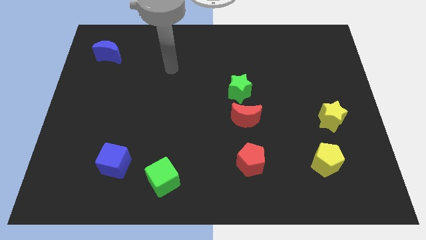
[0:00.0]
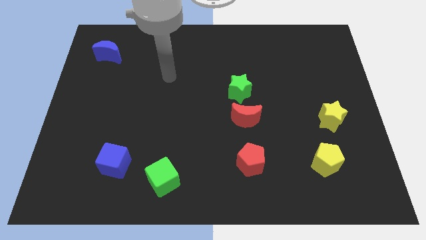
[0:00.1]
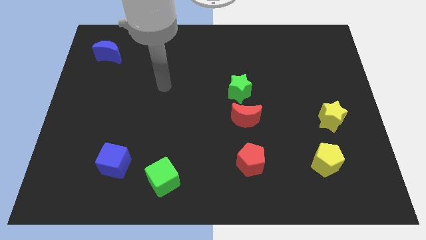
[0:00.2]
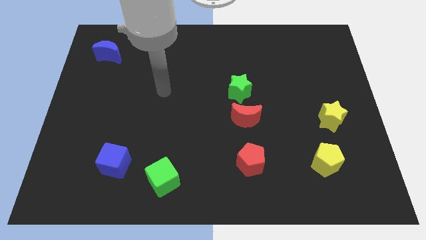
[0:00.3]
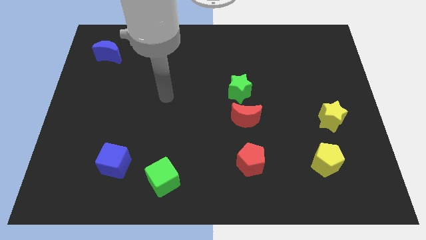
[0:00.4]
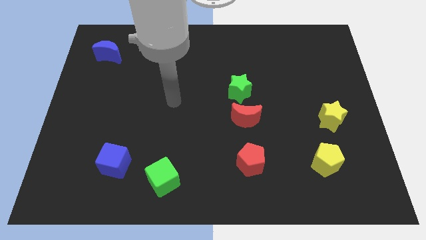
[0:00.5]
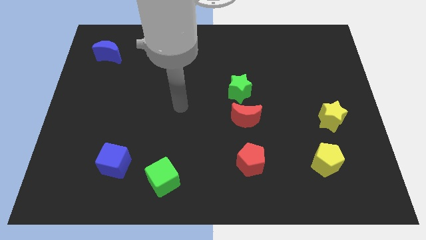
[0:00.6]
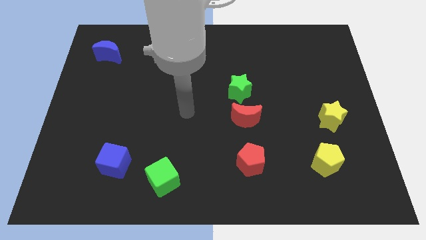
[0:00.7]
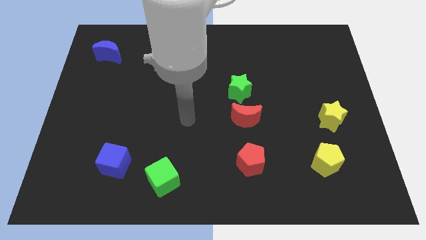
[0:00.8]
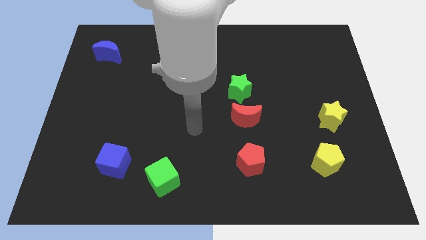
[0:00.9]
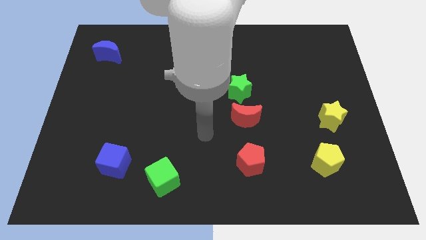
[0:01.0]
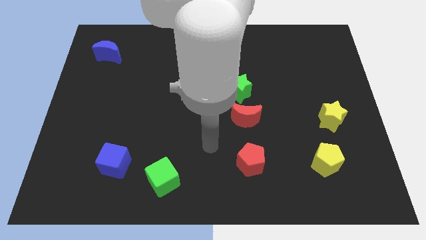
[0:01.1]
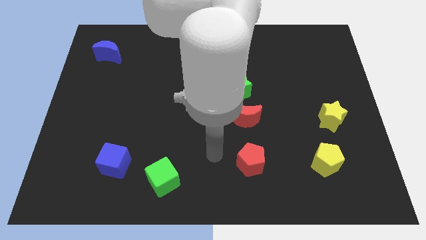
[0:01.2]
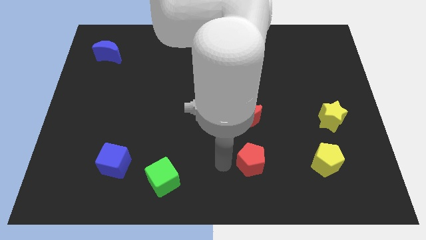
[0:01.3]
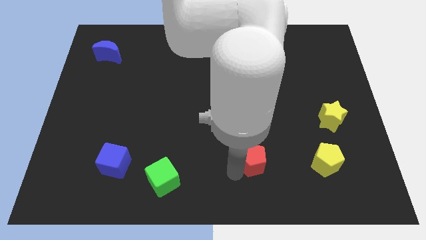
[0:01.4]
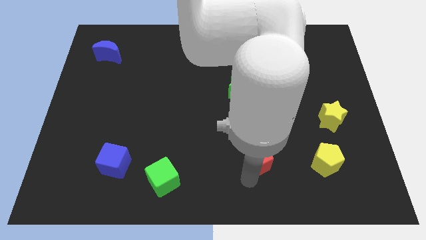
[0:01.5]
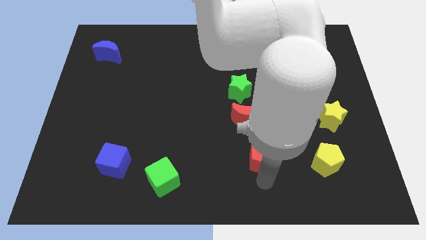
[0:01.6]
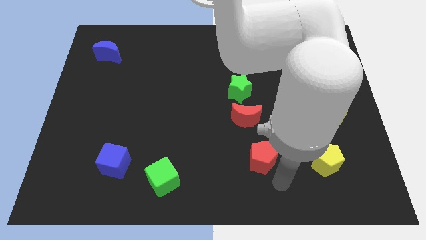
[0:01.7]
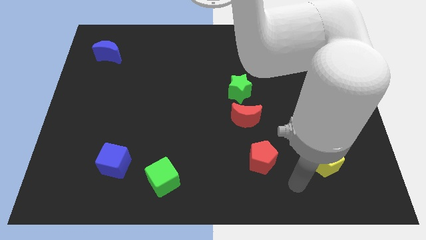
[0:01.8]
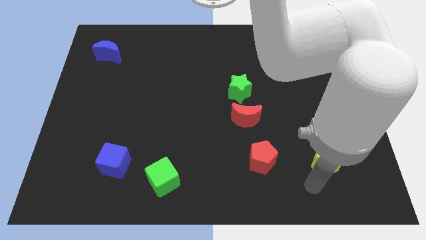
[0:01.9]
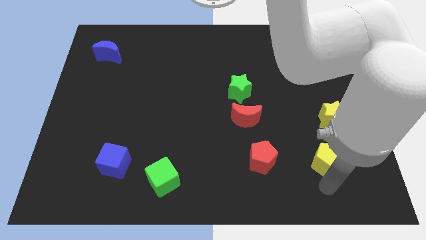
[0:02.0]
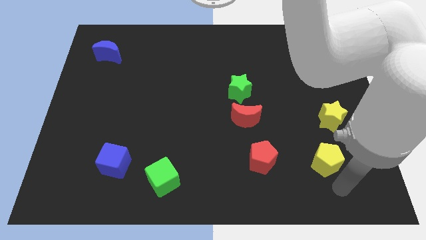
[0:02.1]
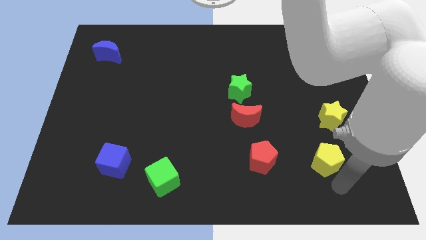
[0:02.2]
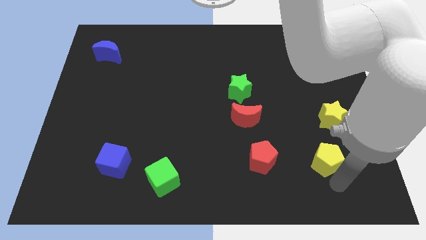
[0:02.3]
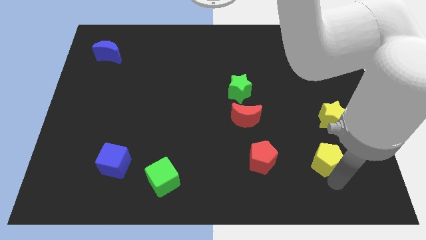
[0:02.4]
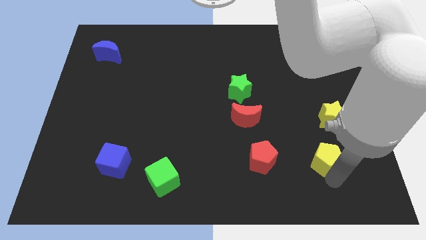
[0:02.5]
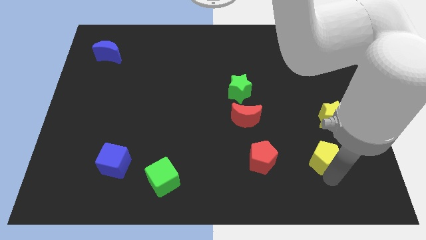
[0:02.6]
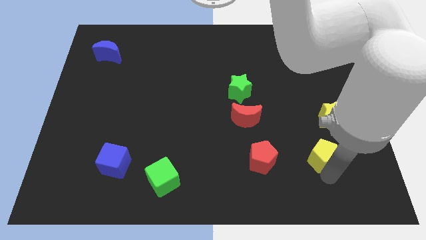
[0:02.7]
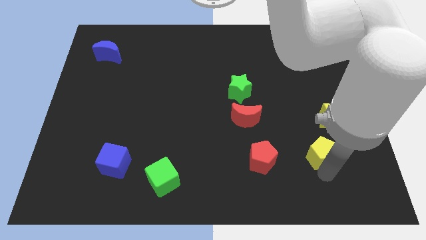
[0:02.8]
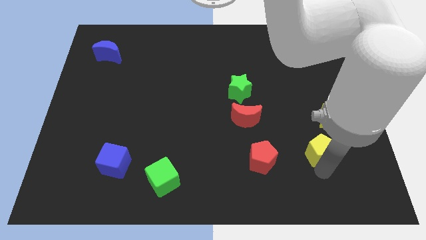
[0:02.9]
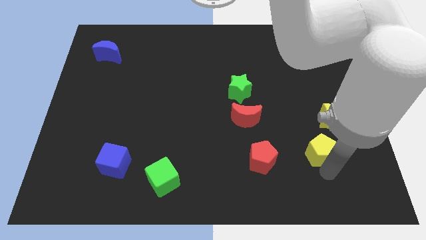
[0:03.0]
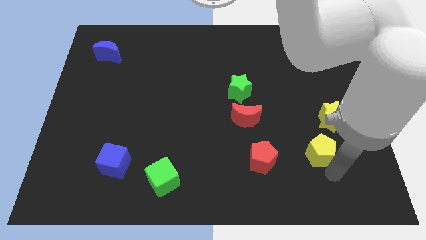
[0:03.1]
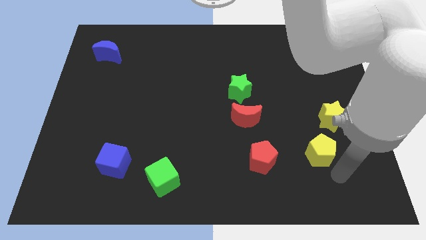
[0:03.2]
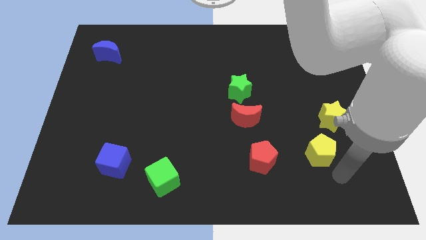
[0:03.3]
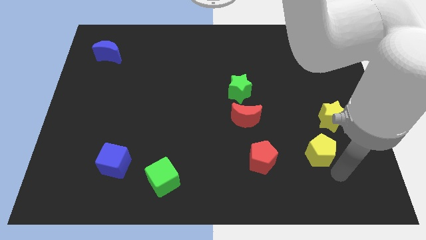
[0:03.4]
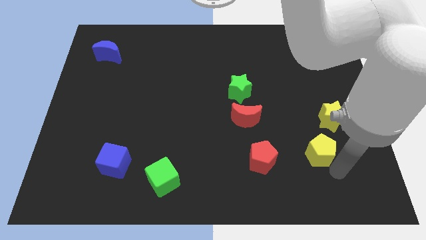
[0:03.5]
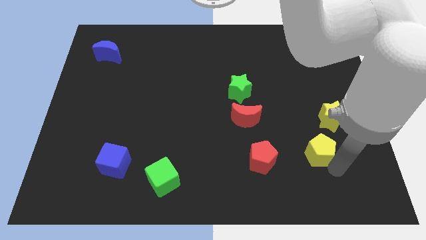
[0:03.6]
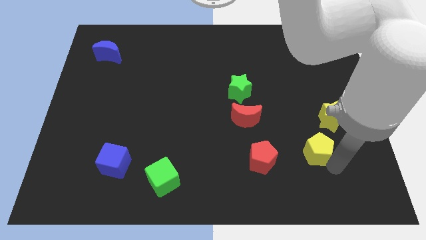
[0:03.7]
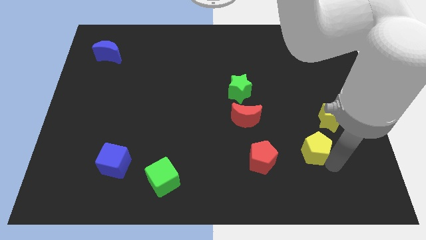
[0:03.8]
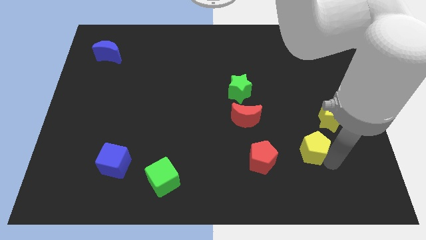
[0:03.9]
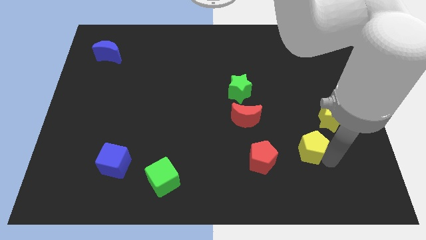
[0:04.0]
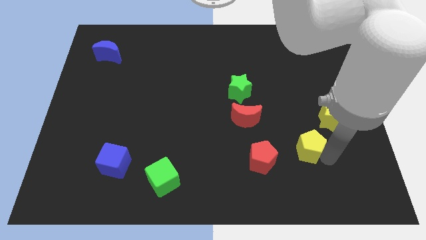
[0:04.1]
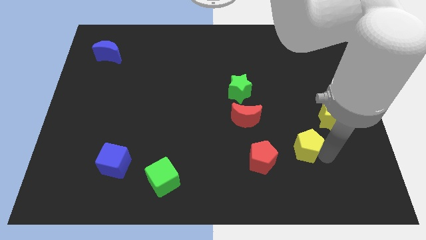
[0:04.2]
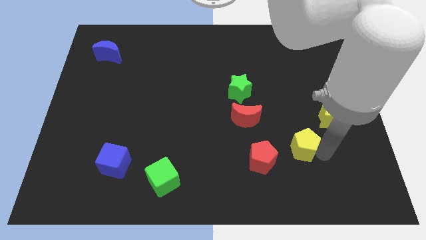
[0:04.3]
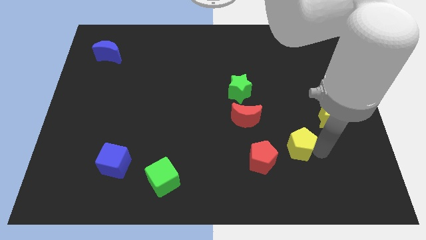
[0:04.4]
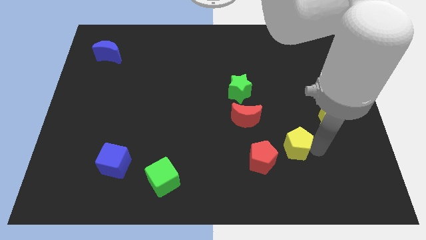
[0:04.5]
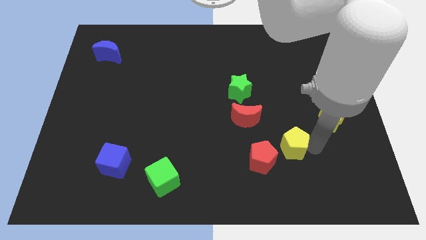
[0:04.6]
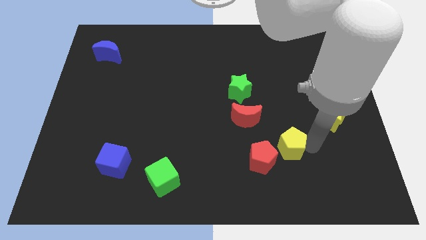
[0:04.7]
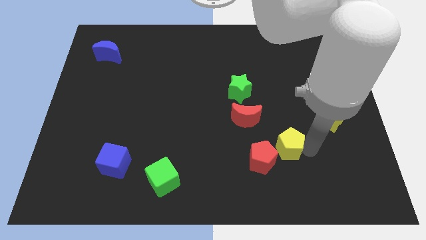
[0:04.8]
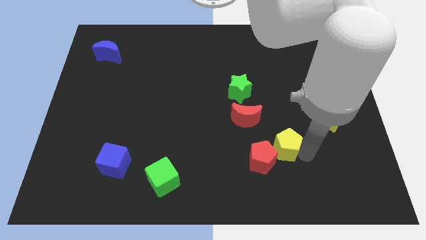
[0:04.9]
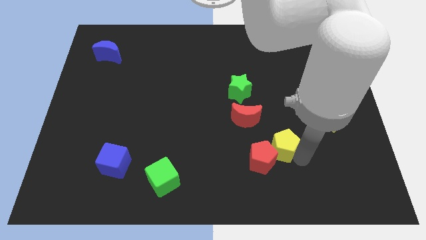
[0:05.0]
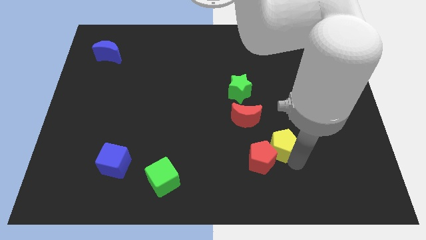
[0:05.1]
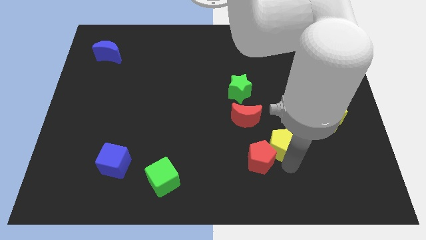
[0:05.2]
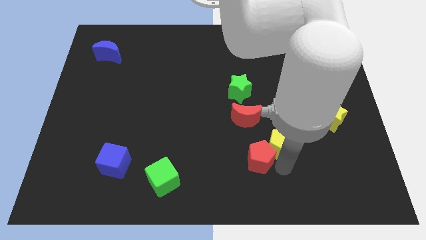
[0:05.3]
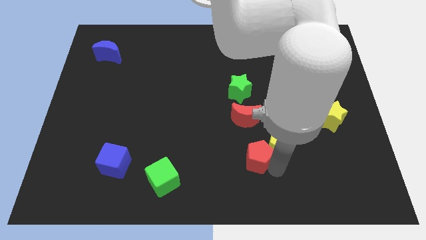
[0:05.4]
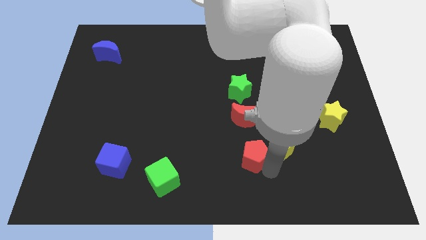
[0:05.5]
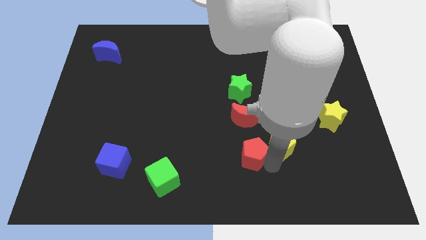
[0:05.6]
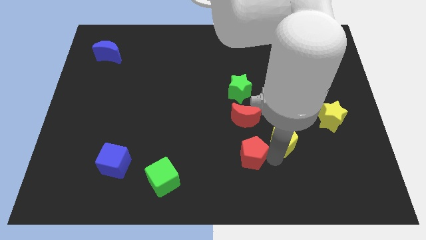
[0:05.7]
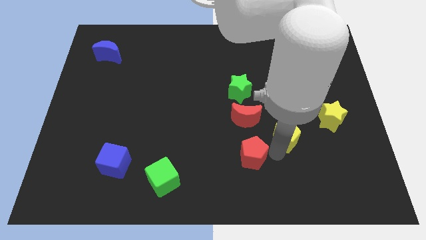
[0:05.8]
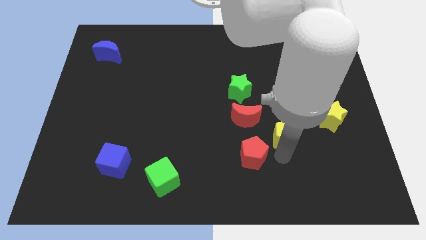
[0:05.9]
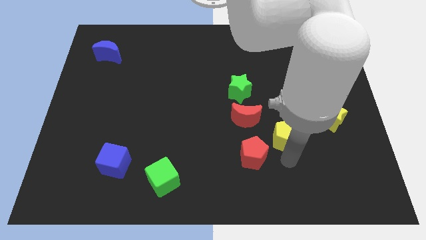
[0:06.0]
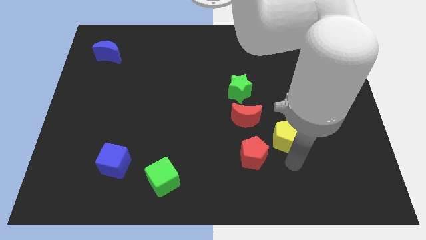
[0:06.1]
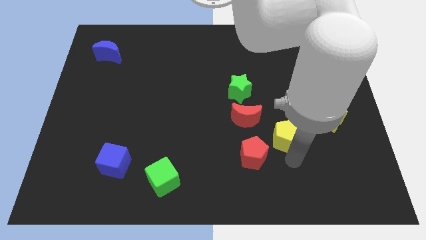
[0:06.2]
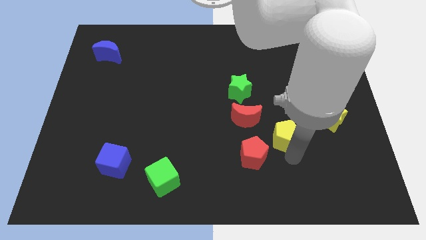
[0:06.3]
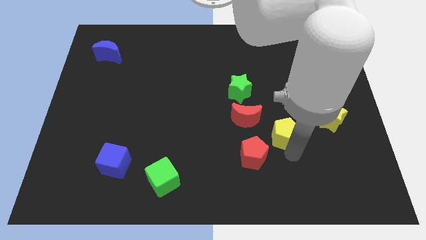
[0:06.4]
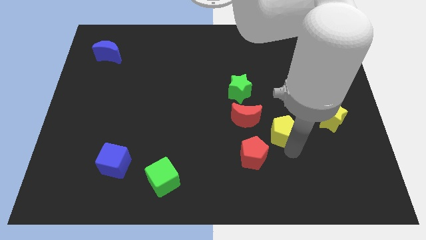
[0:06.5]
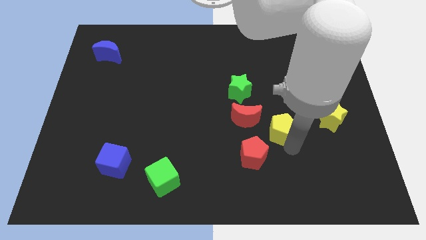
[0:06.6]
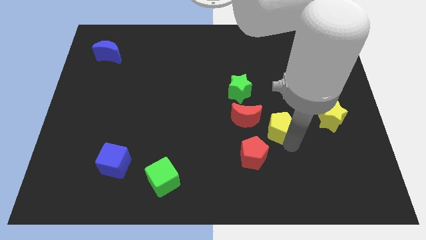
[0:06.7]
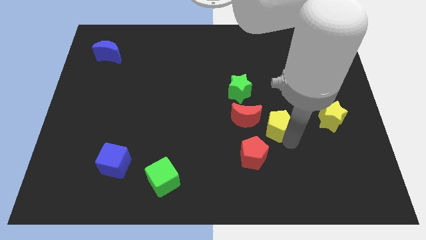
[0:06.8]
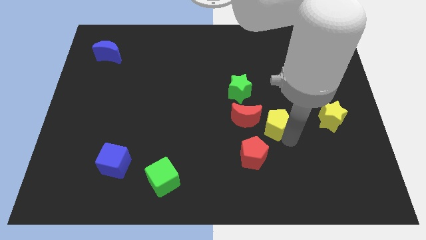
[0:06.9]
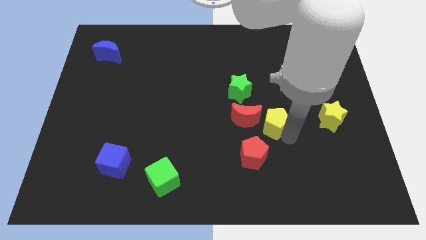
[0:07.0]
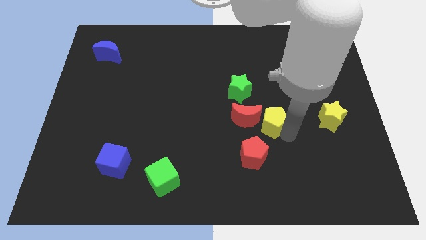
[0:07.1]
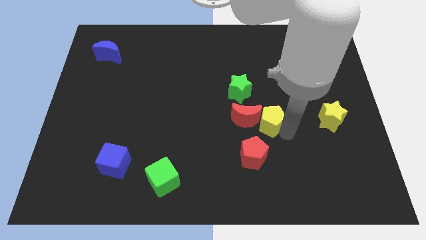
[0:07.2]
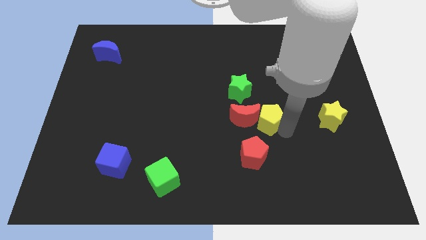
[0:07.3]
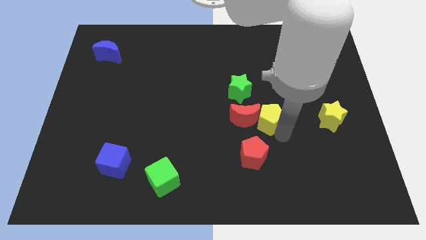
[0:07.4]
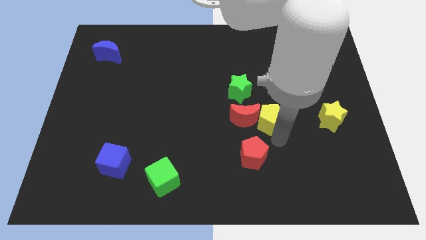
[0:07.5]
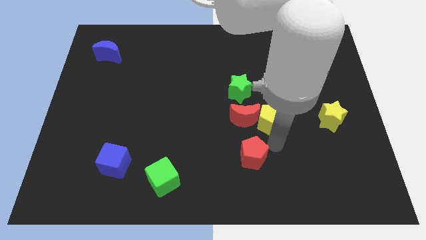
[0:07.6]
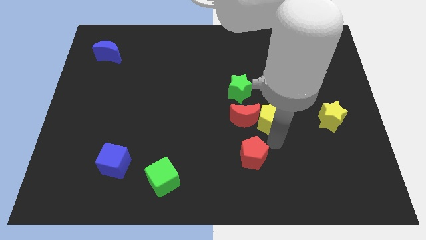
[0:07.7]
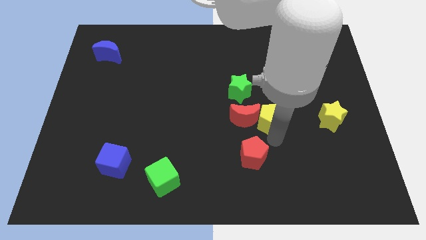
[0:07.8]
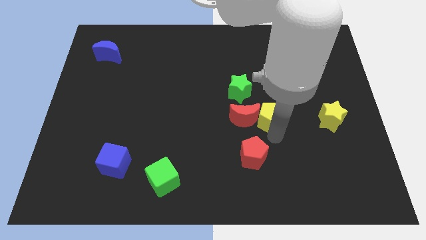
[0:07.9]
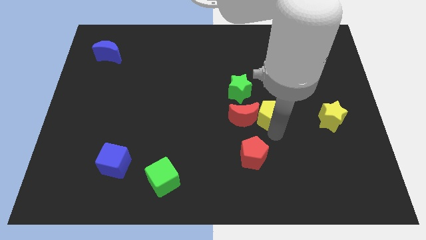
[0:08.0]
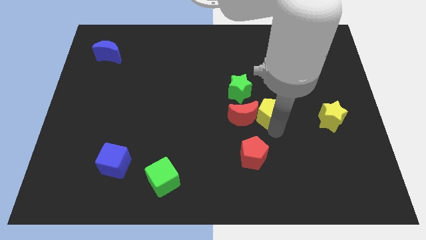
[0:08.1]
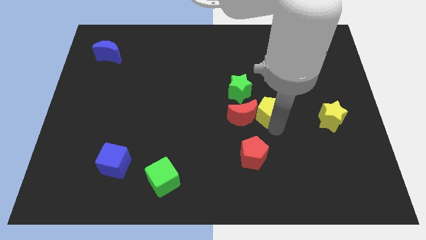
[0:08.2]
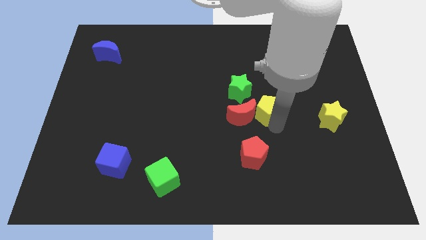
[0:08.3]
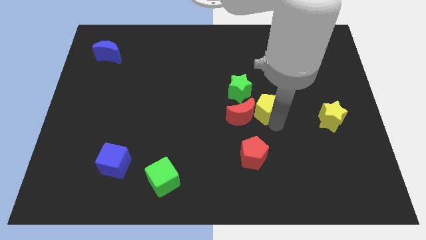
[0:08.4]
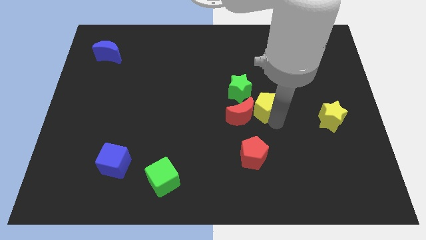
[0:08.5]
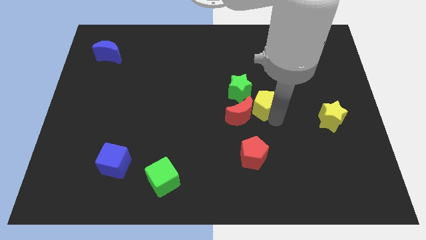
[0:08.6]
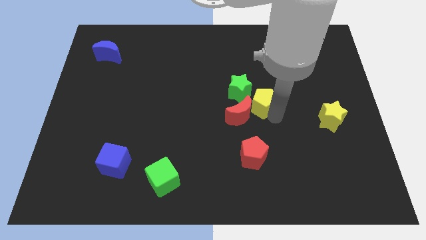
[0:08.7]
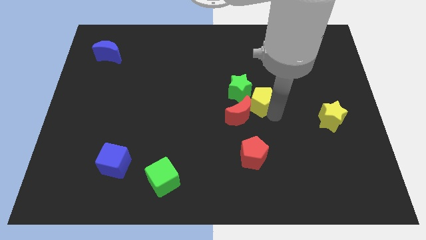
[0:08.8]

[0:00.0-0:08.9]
move the yellow pentagon upwards and to the left diagonally
